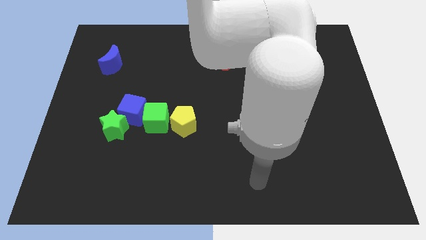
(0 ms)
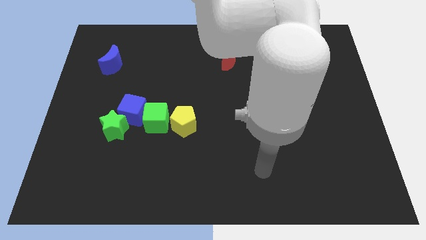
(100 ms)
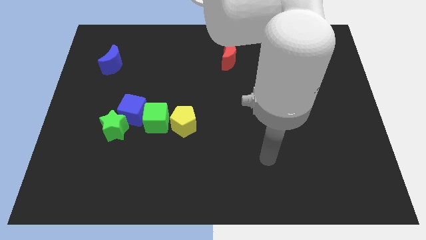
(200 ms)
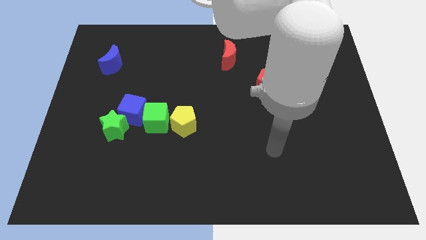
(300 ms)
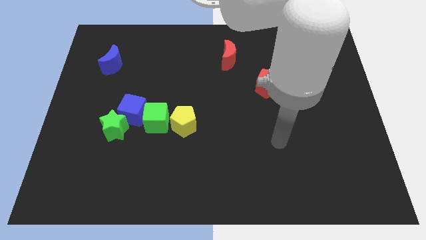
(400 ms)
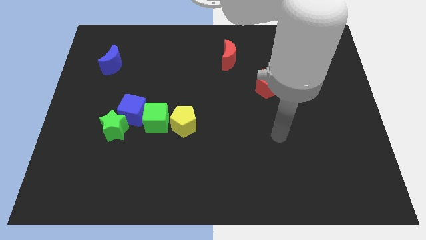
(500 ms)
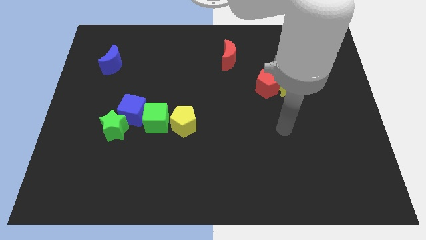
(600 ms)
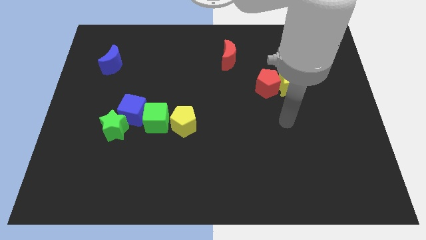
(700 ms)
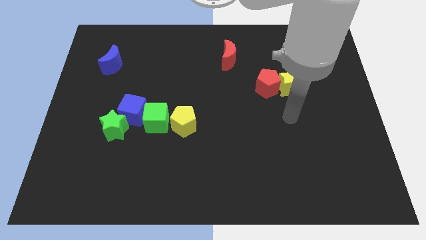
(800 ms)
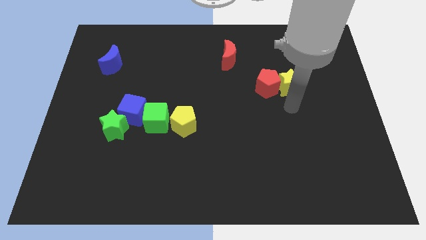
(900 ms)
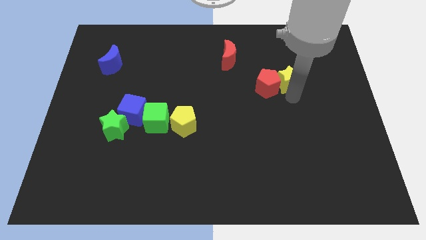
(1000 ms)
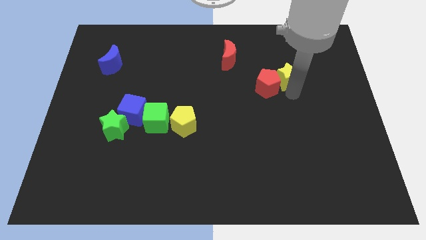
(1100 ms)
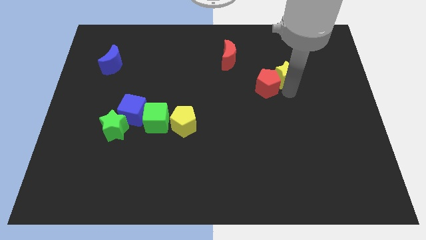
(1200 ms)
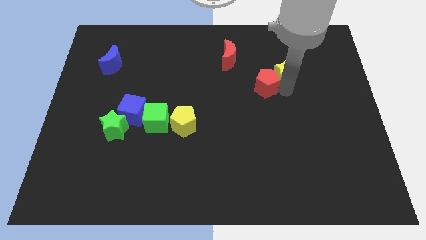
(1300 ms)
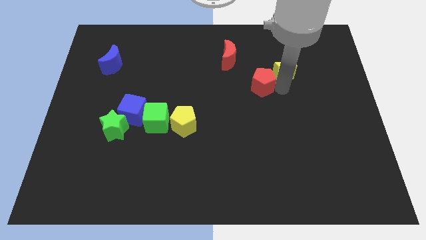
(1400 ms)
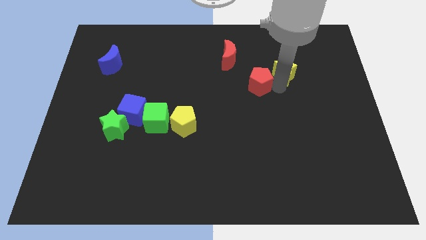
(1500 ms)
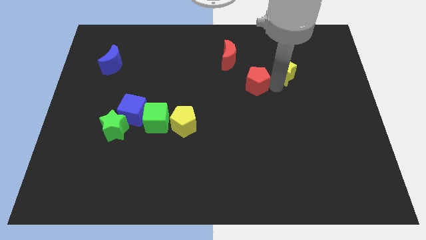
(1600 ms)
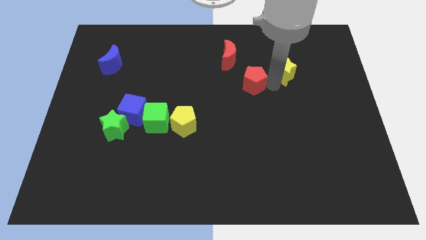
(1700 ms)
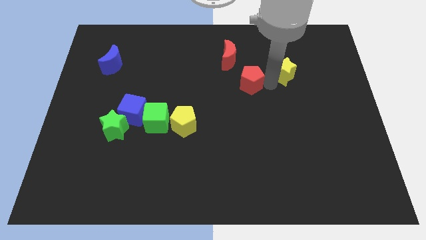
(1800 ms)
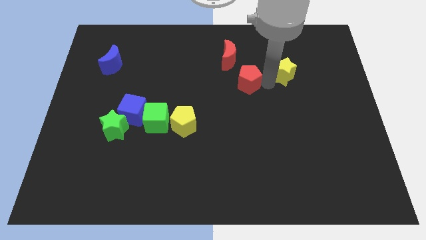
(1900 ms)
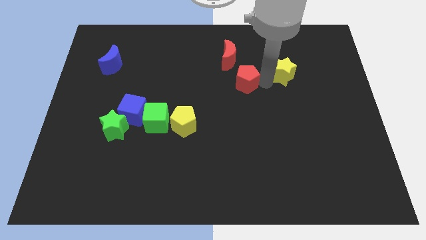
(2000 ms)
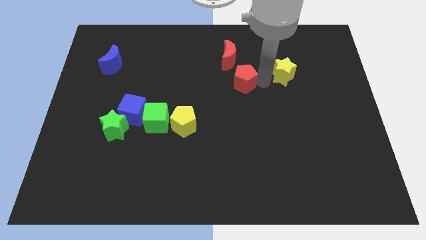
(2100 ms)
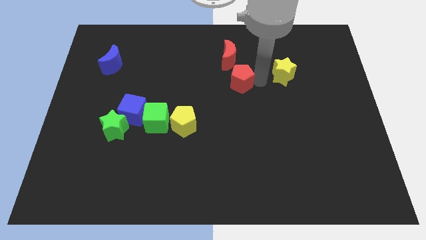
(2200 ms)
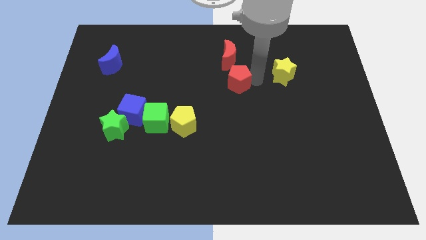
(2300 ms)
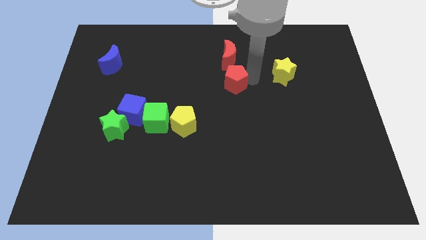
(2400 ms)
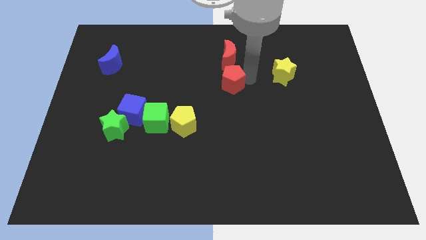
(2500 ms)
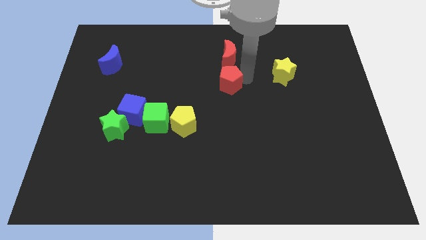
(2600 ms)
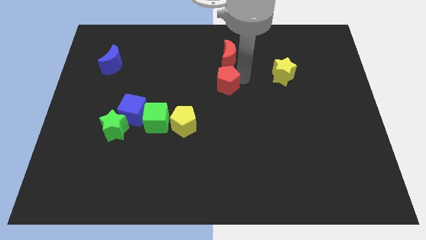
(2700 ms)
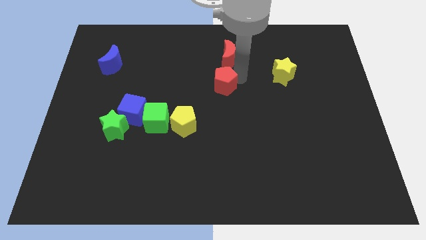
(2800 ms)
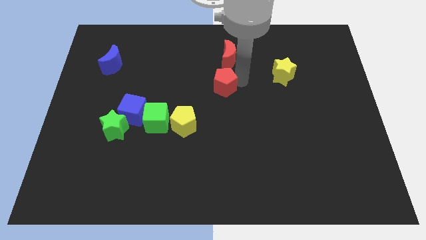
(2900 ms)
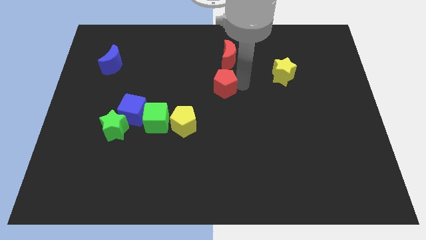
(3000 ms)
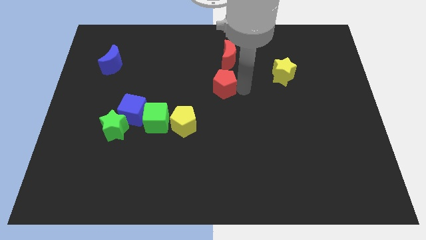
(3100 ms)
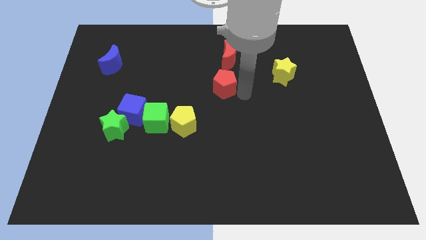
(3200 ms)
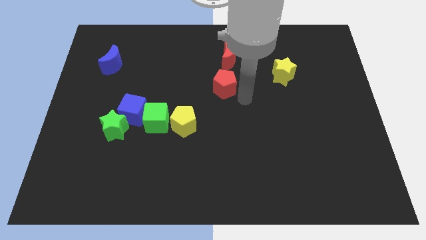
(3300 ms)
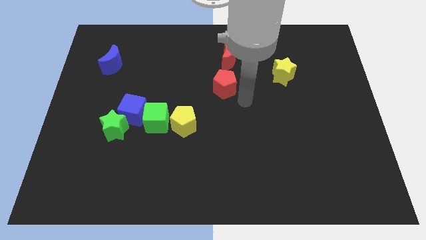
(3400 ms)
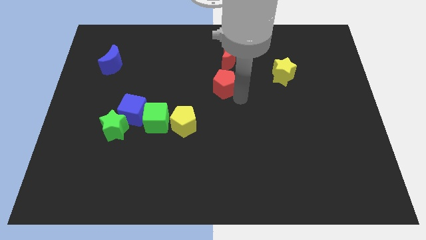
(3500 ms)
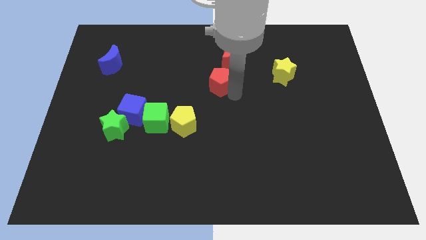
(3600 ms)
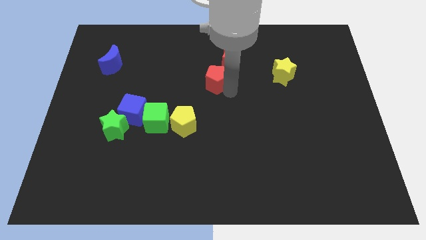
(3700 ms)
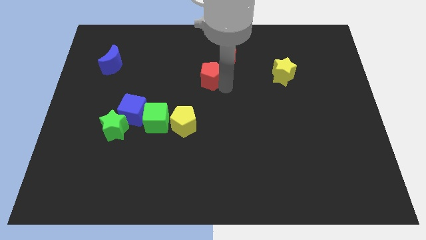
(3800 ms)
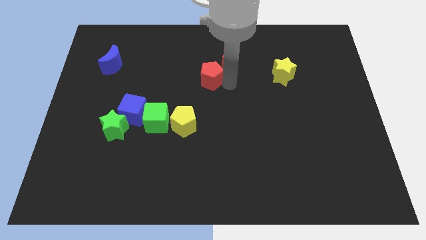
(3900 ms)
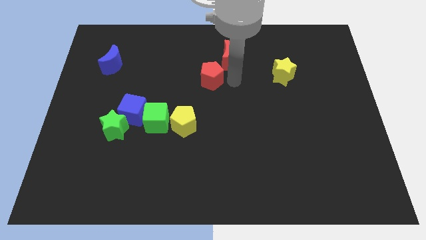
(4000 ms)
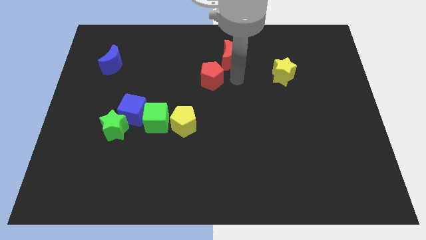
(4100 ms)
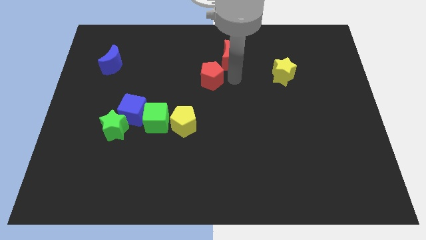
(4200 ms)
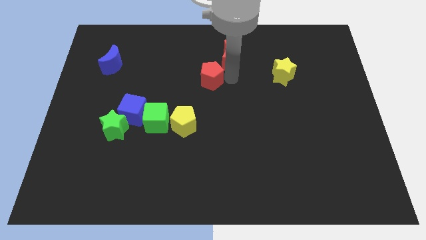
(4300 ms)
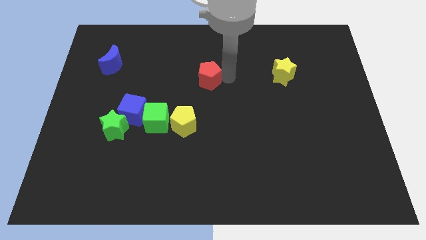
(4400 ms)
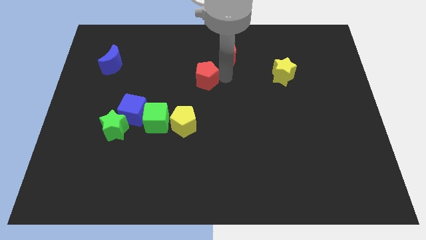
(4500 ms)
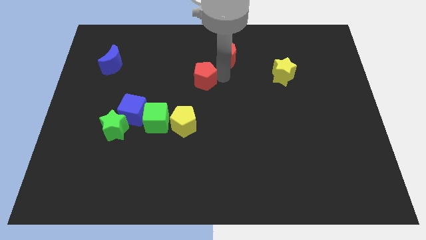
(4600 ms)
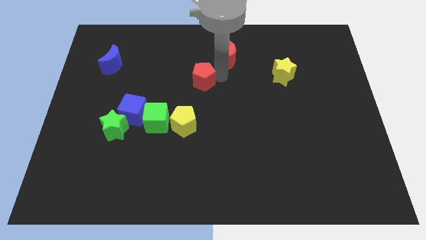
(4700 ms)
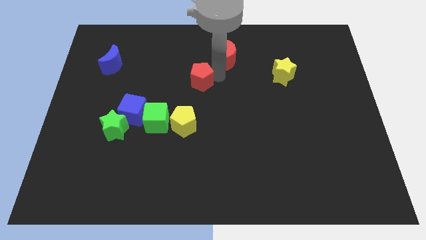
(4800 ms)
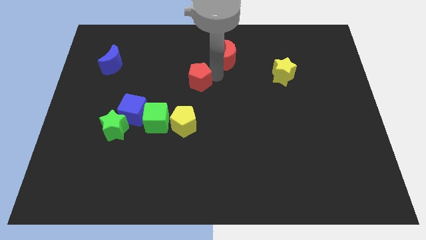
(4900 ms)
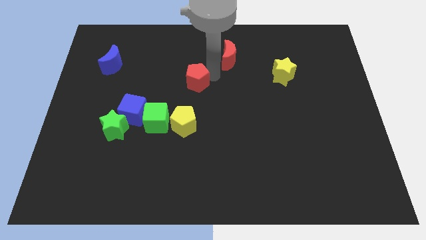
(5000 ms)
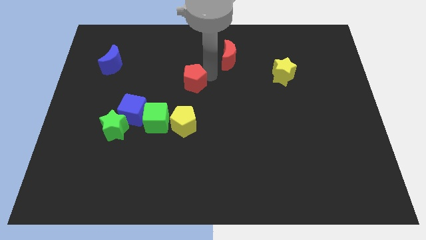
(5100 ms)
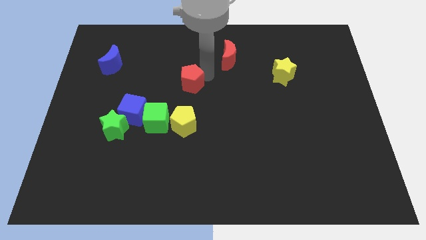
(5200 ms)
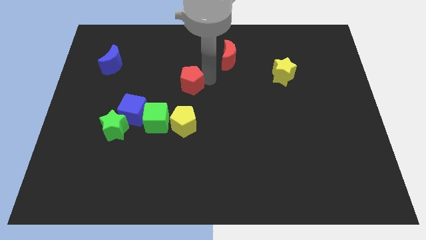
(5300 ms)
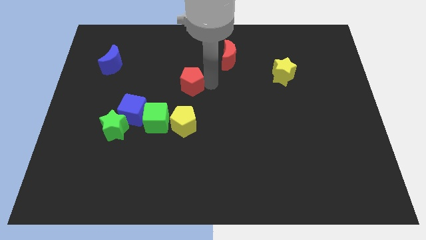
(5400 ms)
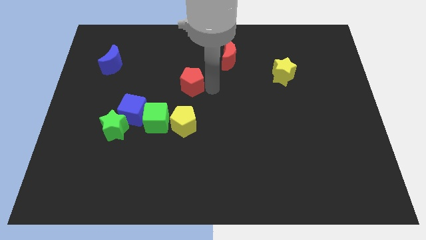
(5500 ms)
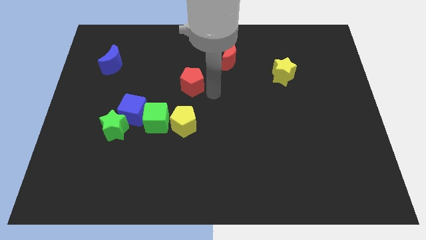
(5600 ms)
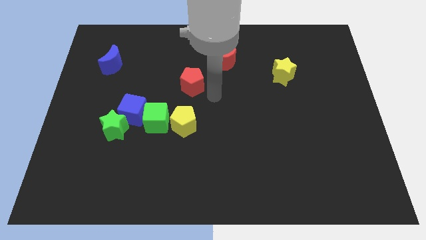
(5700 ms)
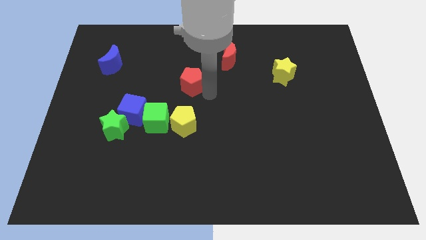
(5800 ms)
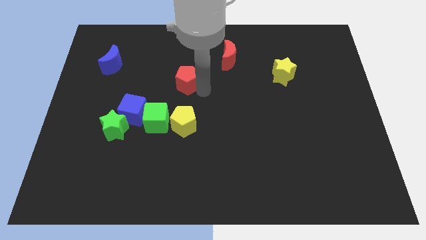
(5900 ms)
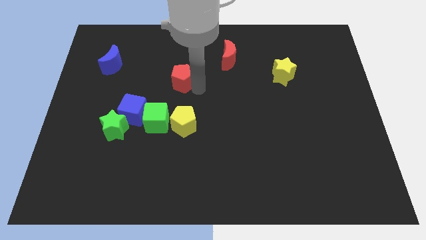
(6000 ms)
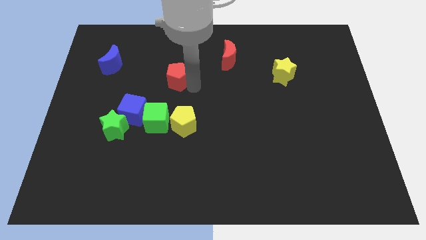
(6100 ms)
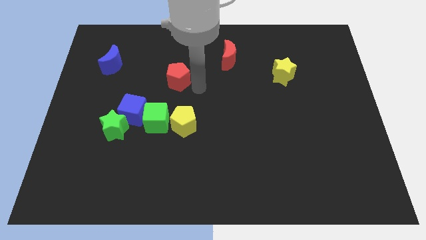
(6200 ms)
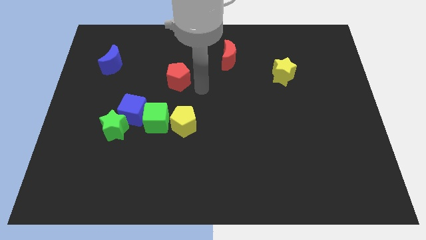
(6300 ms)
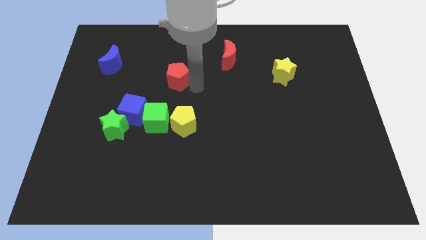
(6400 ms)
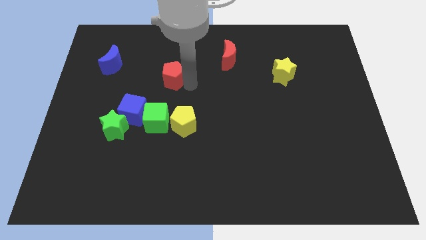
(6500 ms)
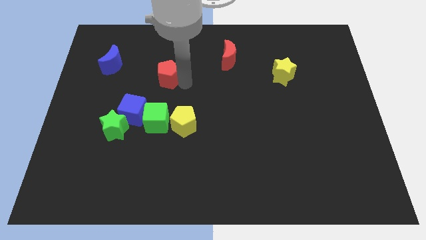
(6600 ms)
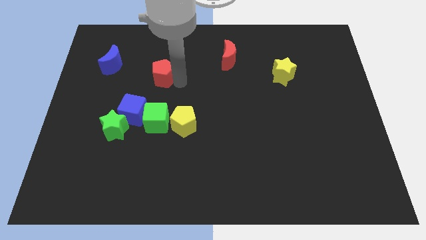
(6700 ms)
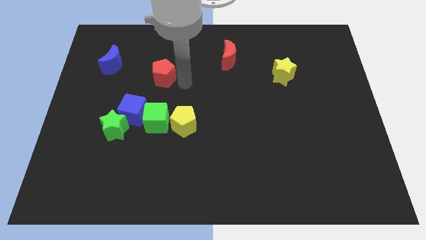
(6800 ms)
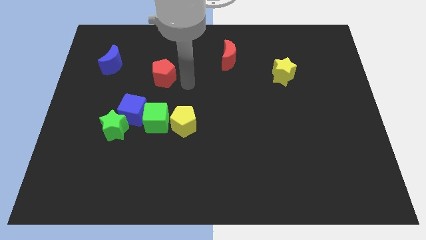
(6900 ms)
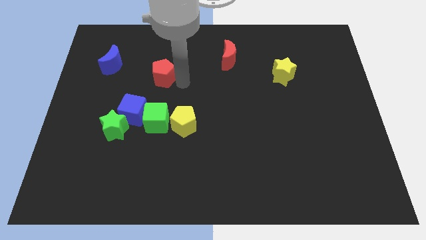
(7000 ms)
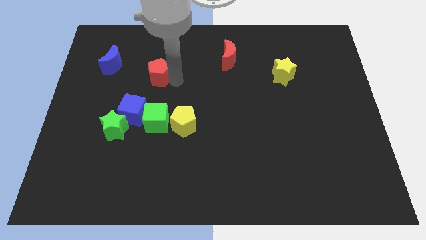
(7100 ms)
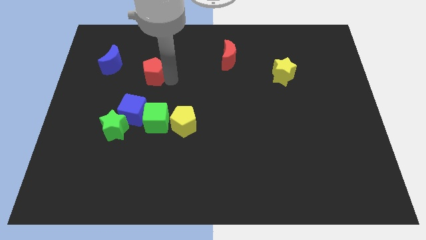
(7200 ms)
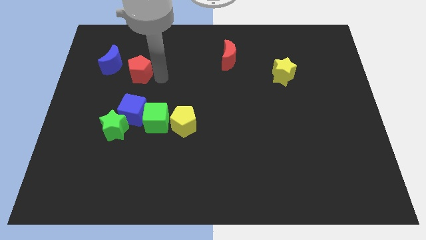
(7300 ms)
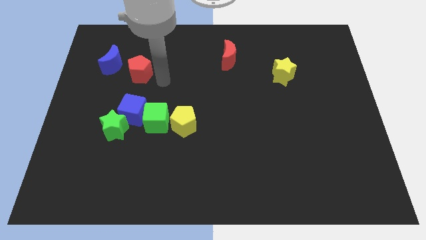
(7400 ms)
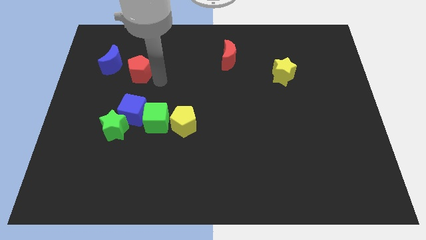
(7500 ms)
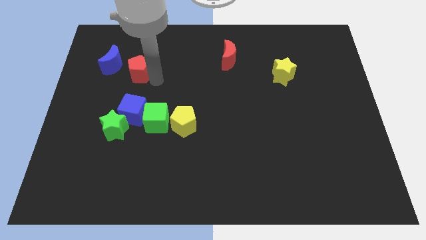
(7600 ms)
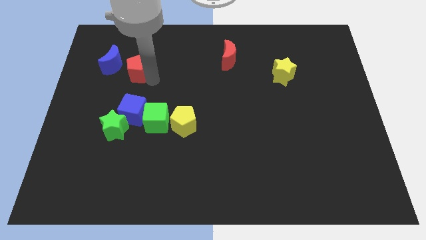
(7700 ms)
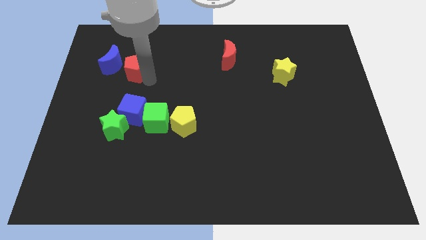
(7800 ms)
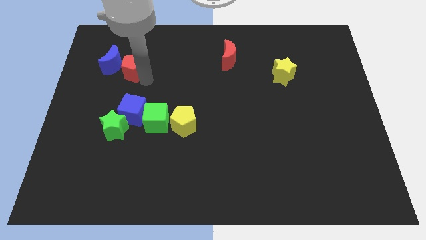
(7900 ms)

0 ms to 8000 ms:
move the red pentagon to the blue moon

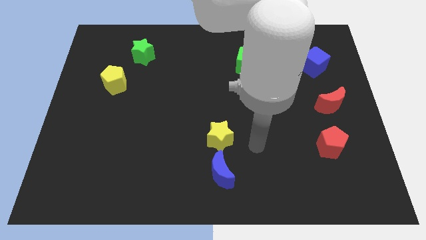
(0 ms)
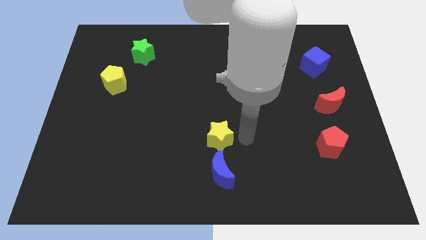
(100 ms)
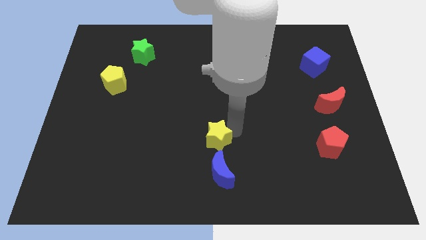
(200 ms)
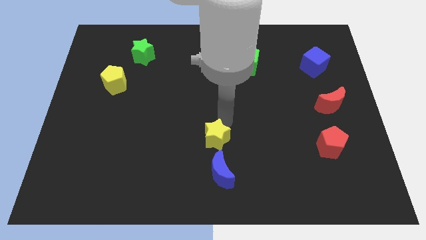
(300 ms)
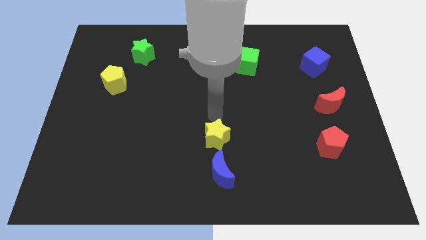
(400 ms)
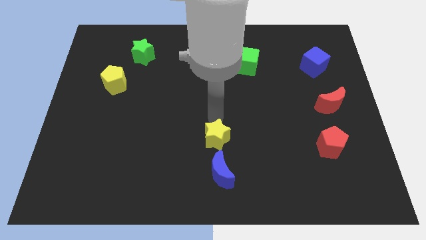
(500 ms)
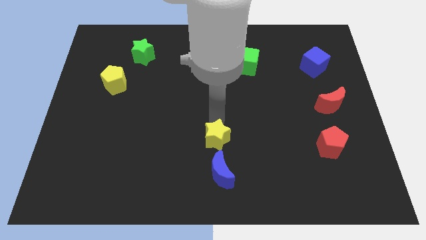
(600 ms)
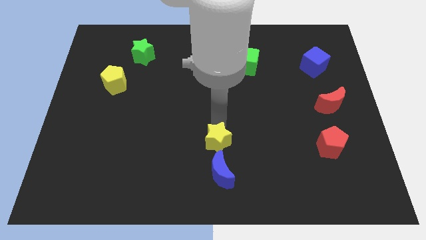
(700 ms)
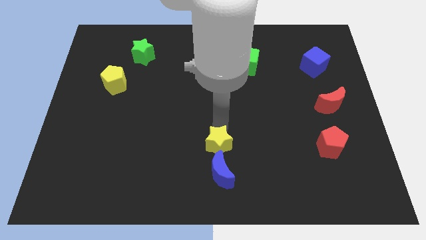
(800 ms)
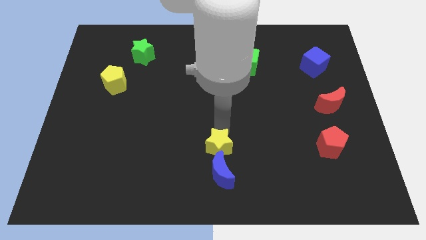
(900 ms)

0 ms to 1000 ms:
move the yellow star to the blue moon
